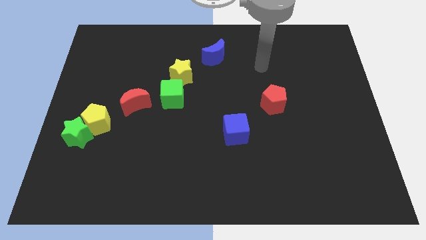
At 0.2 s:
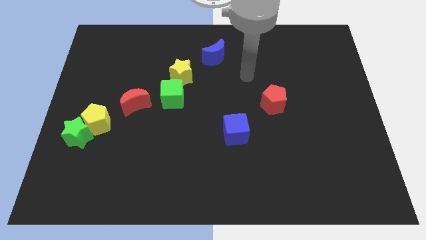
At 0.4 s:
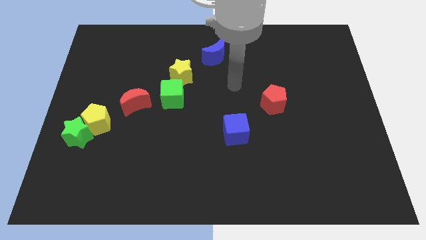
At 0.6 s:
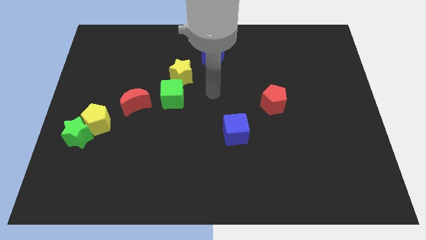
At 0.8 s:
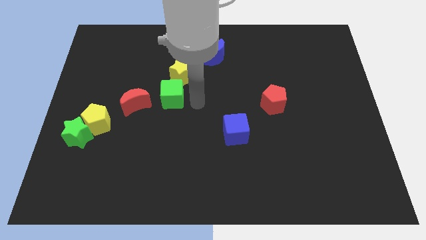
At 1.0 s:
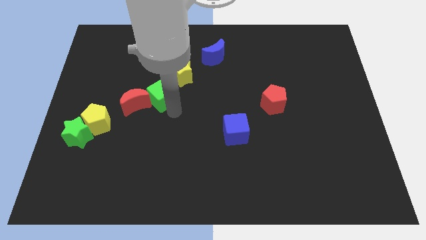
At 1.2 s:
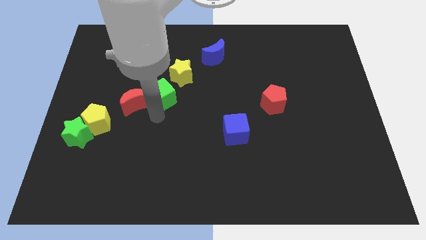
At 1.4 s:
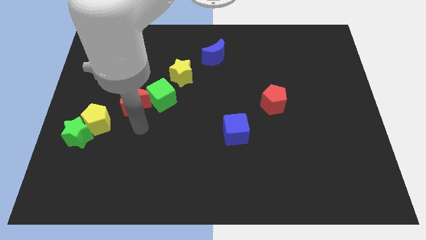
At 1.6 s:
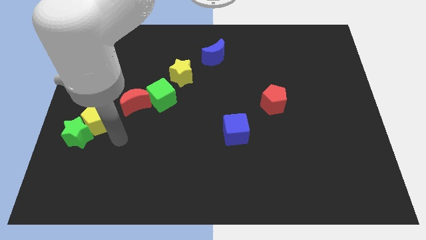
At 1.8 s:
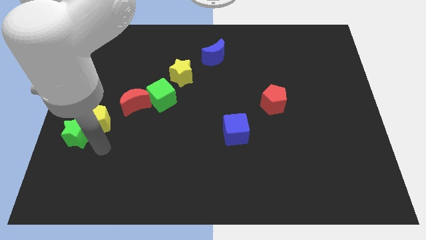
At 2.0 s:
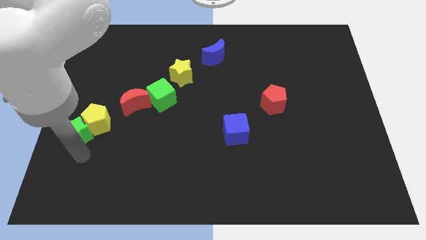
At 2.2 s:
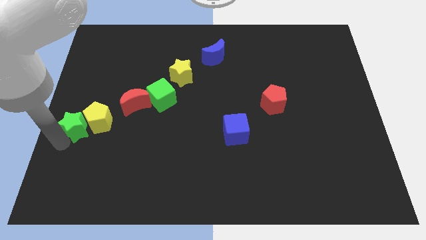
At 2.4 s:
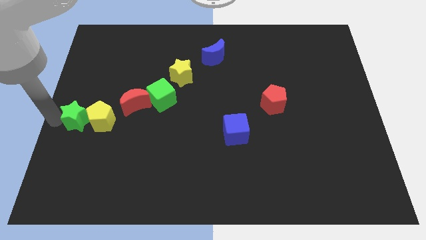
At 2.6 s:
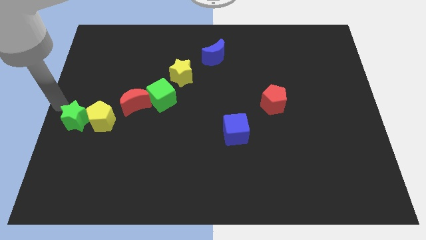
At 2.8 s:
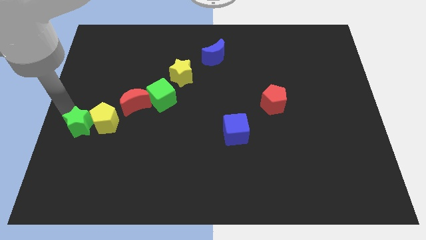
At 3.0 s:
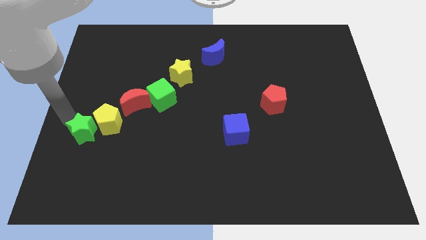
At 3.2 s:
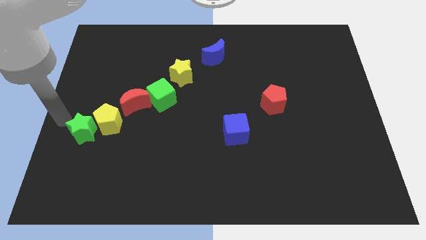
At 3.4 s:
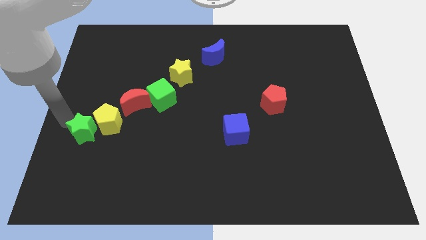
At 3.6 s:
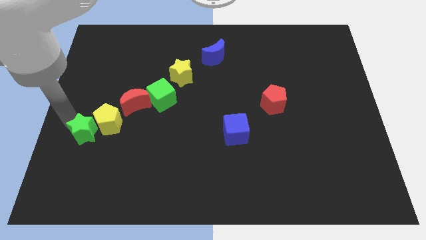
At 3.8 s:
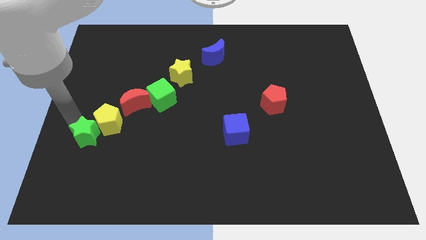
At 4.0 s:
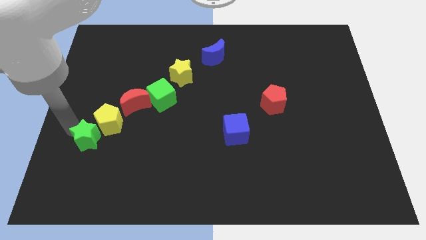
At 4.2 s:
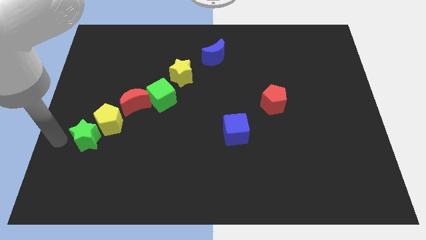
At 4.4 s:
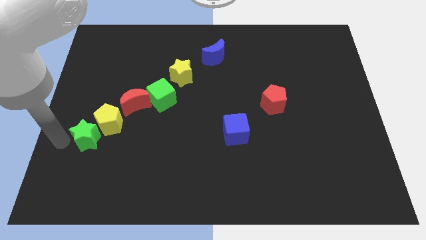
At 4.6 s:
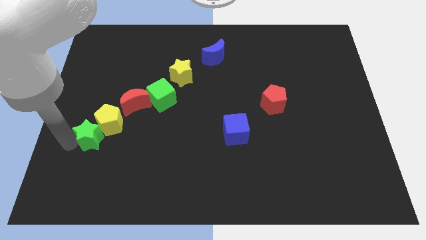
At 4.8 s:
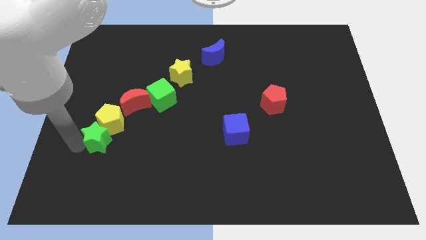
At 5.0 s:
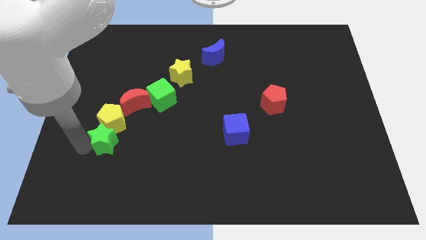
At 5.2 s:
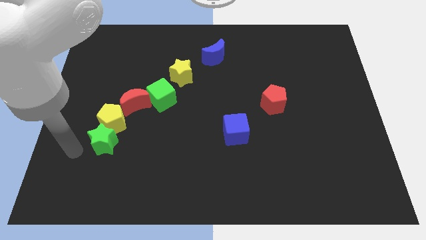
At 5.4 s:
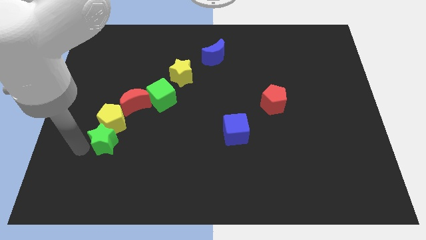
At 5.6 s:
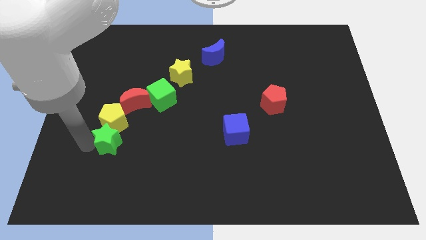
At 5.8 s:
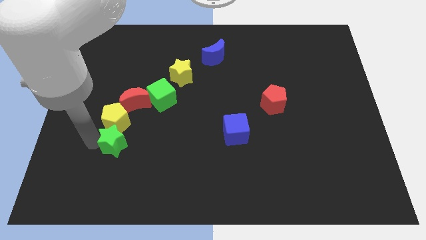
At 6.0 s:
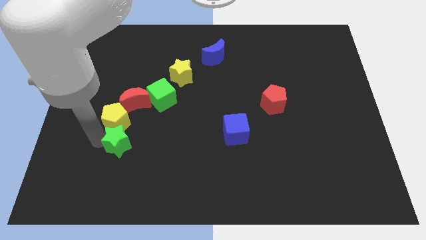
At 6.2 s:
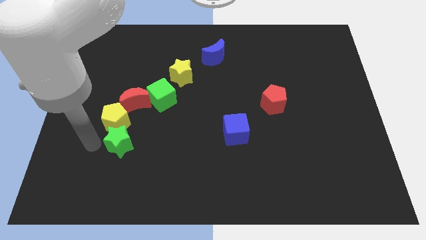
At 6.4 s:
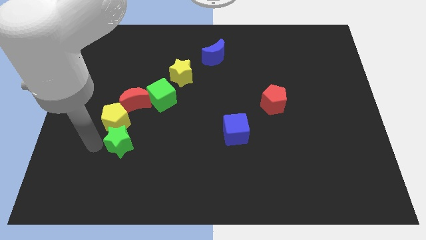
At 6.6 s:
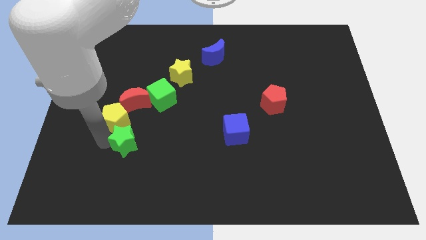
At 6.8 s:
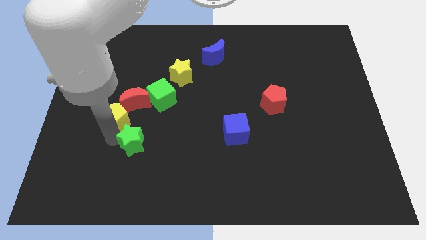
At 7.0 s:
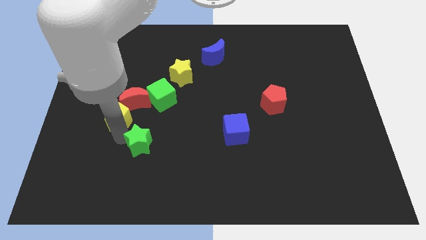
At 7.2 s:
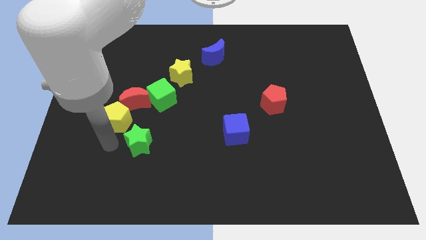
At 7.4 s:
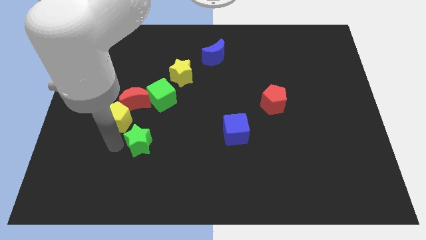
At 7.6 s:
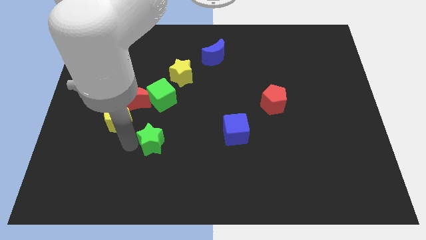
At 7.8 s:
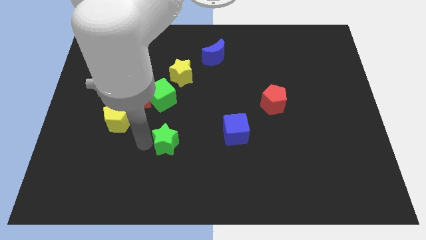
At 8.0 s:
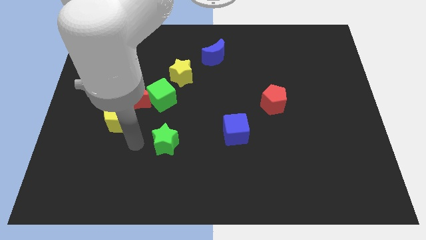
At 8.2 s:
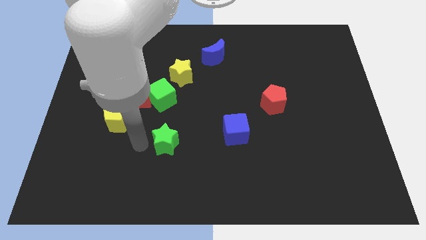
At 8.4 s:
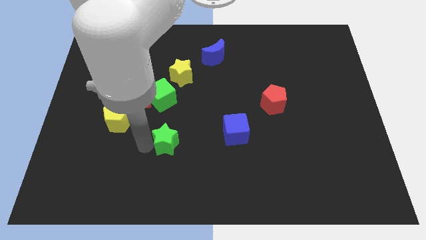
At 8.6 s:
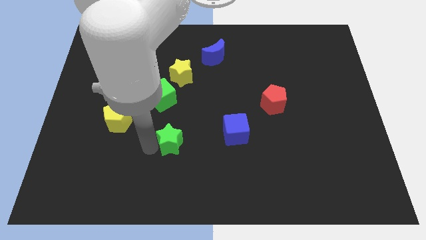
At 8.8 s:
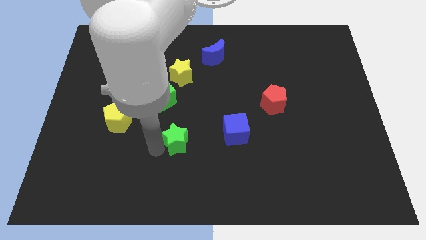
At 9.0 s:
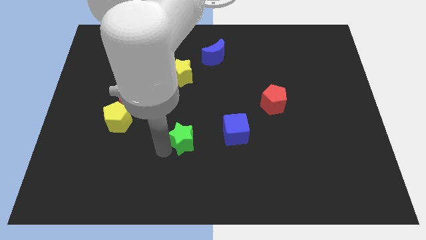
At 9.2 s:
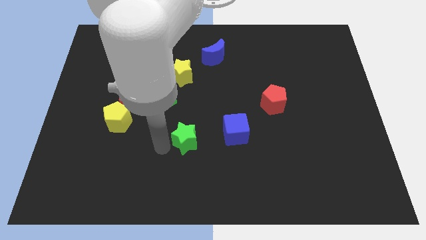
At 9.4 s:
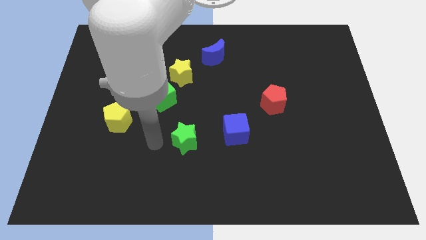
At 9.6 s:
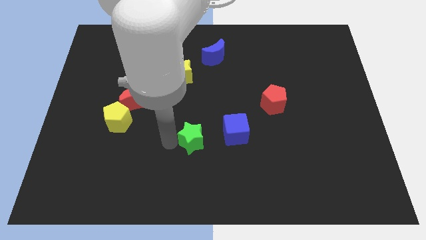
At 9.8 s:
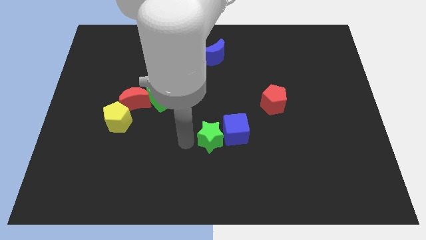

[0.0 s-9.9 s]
push the green star towards the blue cube

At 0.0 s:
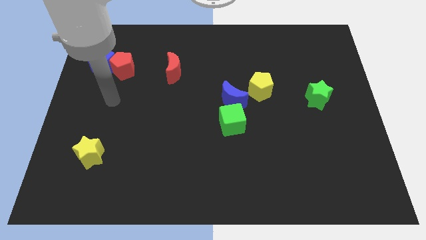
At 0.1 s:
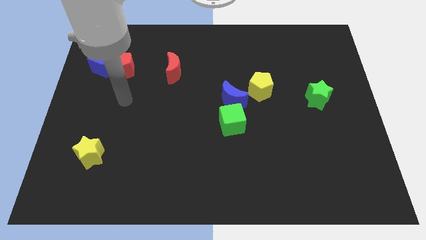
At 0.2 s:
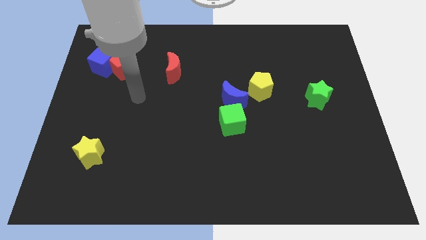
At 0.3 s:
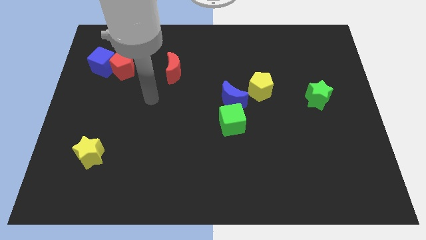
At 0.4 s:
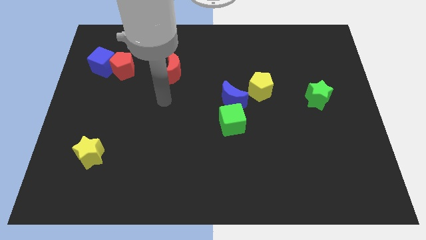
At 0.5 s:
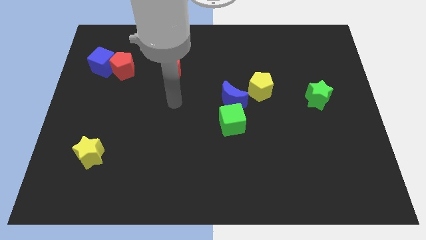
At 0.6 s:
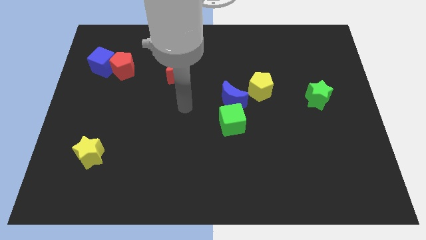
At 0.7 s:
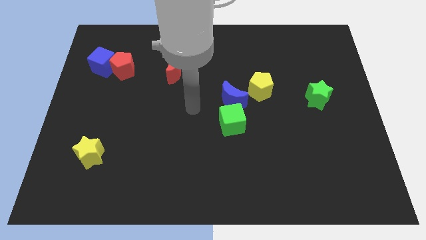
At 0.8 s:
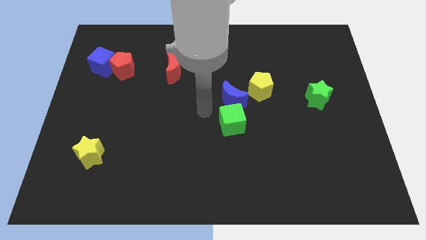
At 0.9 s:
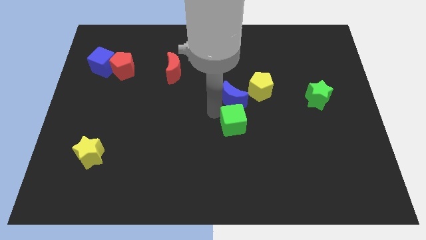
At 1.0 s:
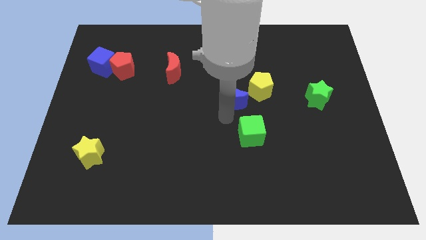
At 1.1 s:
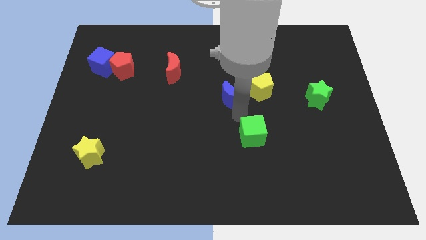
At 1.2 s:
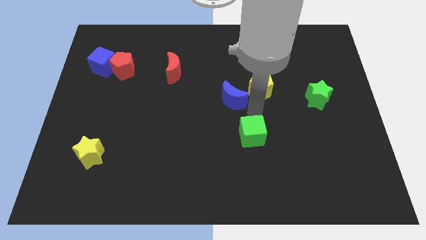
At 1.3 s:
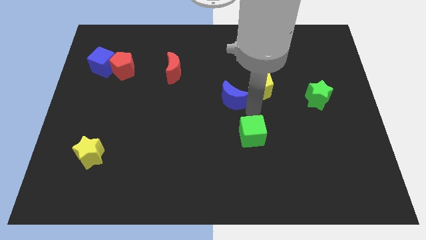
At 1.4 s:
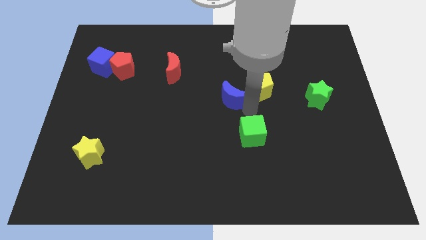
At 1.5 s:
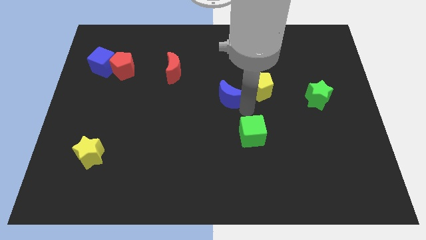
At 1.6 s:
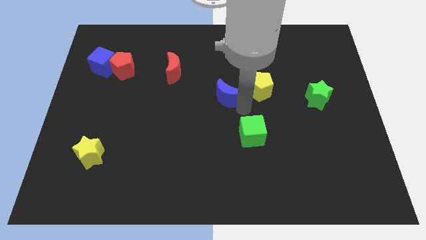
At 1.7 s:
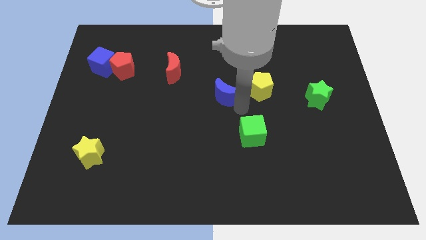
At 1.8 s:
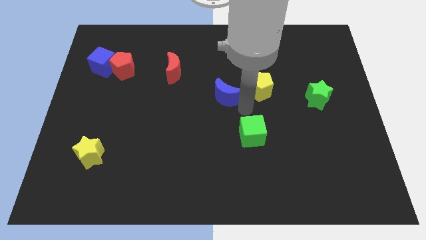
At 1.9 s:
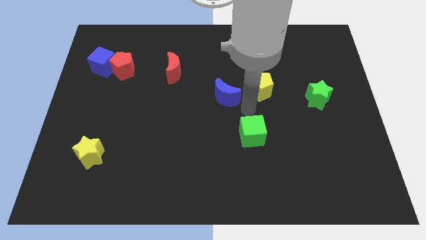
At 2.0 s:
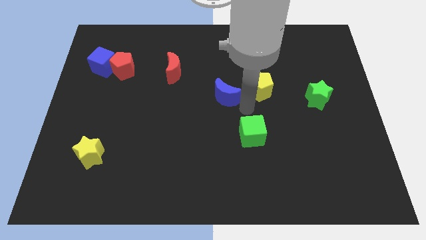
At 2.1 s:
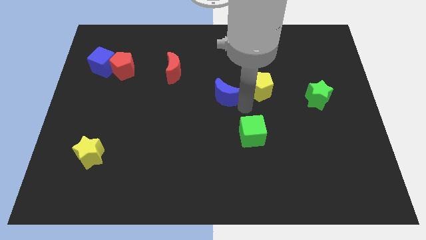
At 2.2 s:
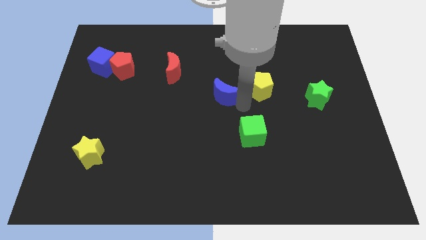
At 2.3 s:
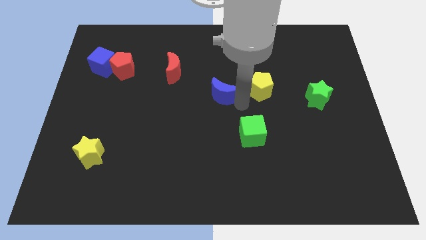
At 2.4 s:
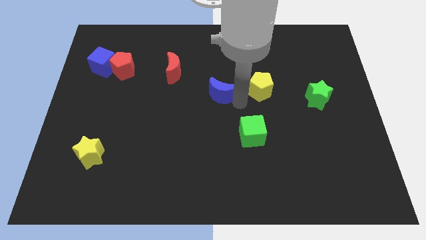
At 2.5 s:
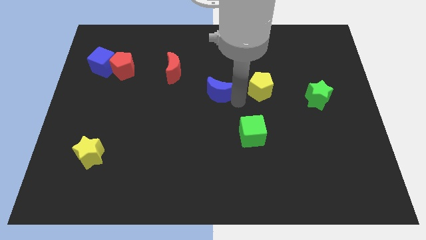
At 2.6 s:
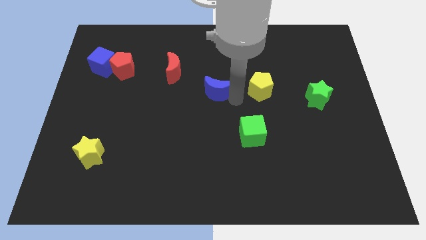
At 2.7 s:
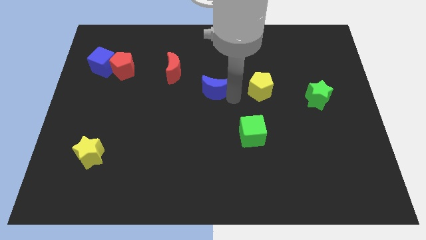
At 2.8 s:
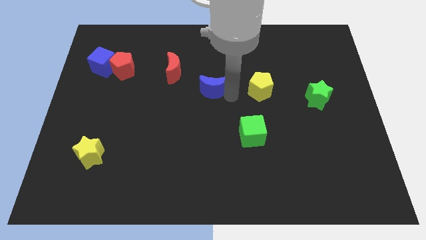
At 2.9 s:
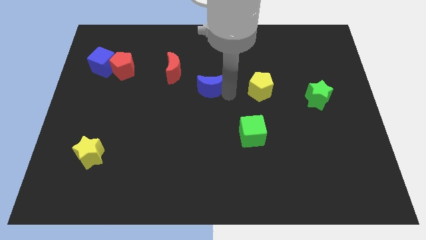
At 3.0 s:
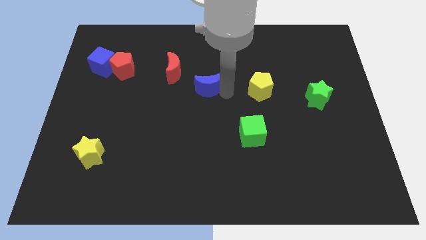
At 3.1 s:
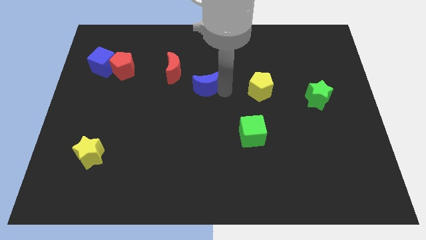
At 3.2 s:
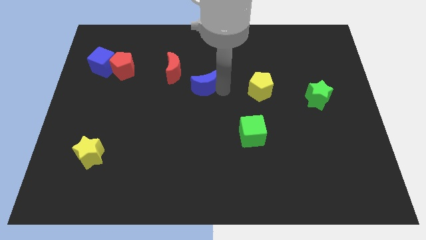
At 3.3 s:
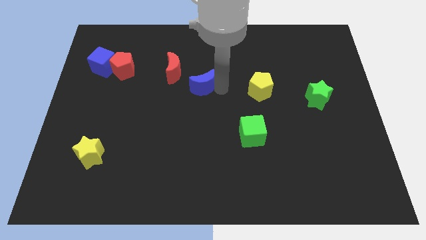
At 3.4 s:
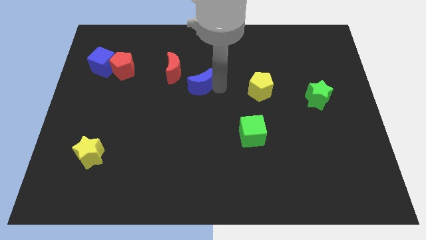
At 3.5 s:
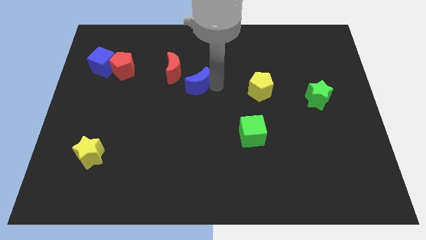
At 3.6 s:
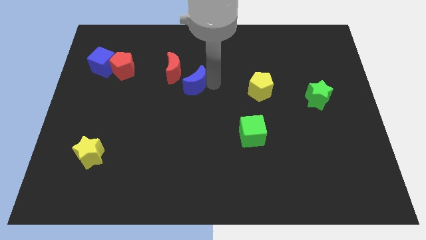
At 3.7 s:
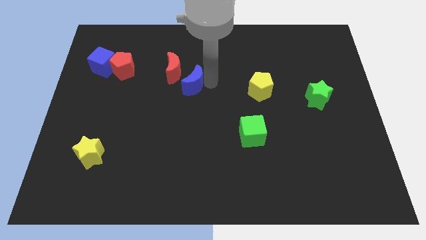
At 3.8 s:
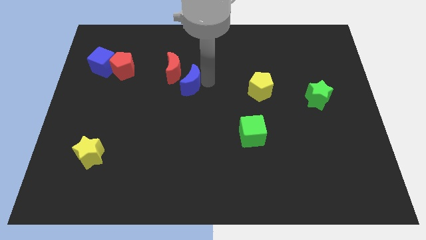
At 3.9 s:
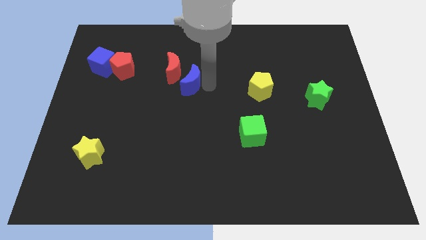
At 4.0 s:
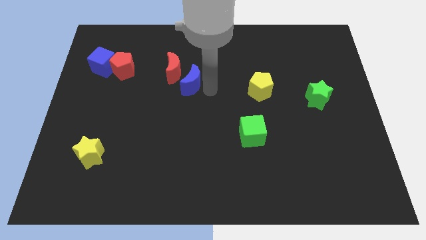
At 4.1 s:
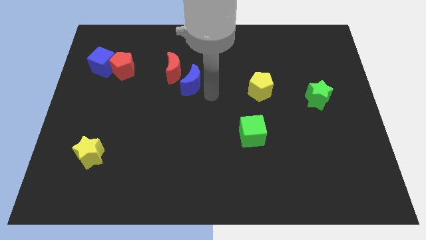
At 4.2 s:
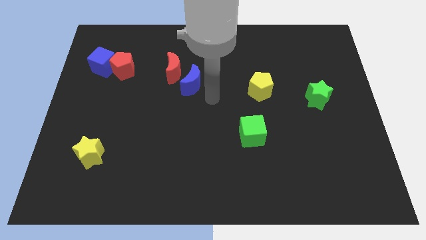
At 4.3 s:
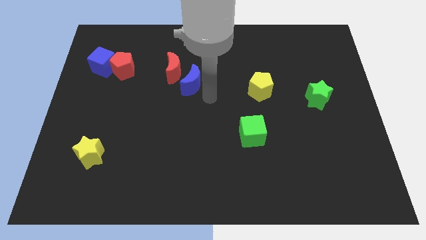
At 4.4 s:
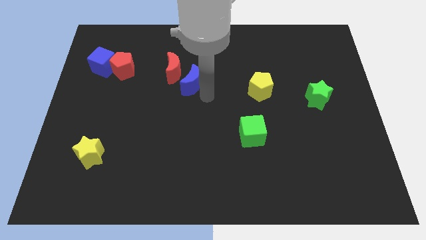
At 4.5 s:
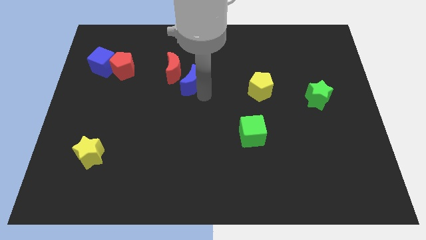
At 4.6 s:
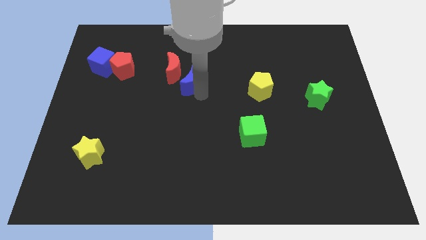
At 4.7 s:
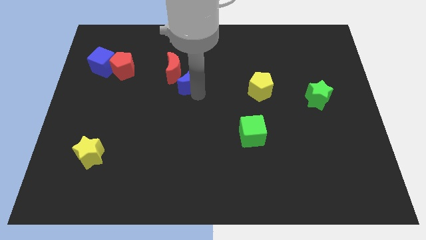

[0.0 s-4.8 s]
push the blue moon towards the red moon
